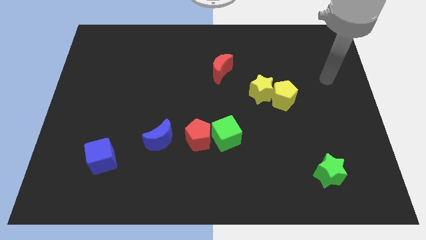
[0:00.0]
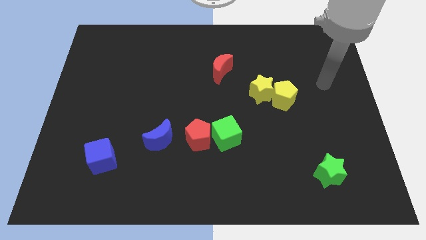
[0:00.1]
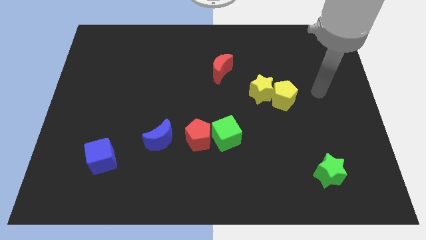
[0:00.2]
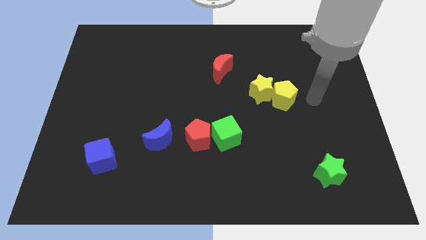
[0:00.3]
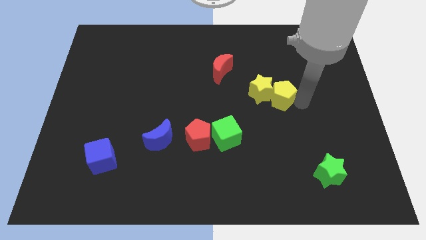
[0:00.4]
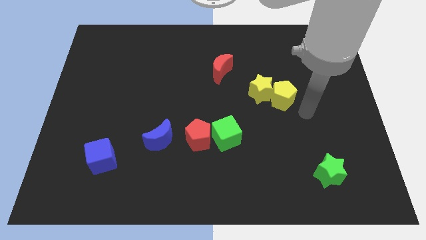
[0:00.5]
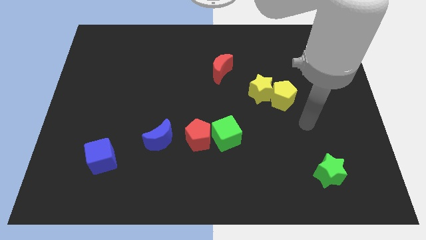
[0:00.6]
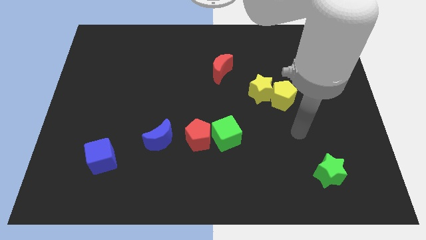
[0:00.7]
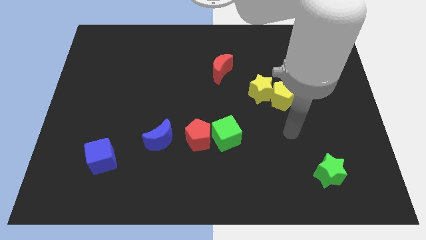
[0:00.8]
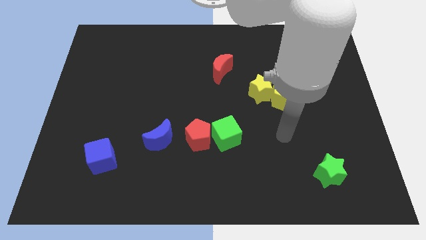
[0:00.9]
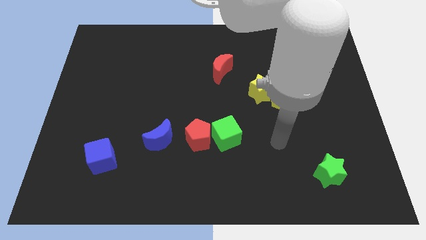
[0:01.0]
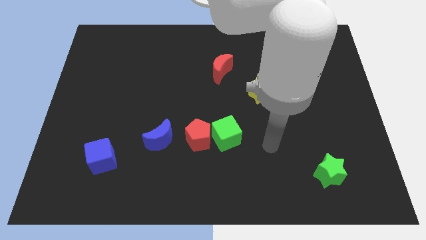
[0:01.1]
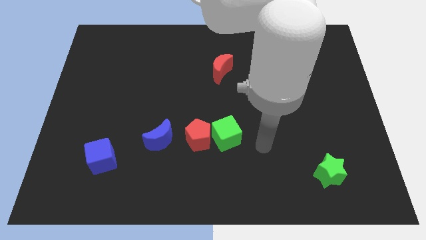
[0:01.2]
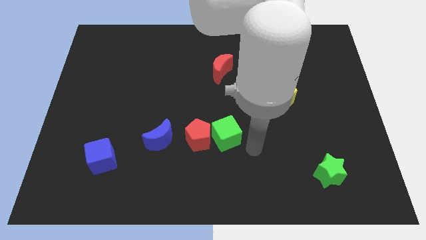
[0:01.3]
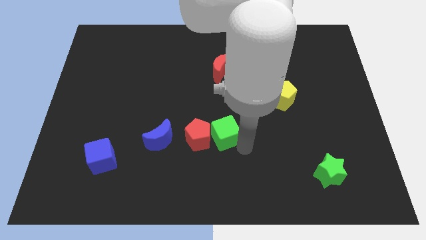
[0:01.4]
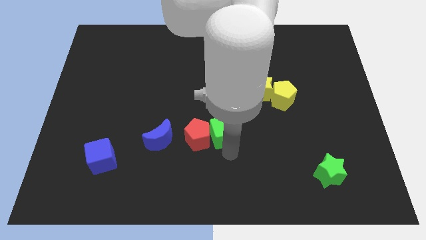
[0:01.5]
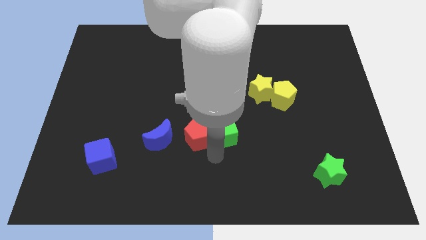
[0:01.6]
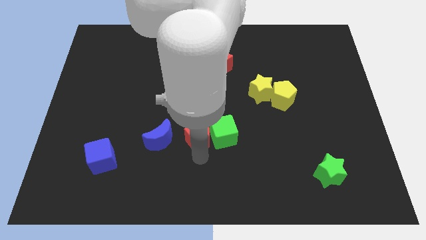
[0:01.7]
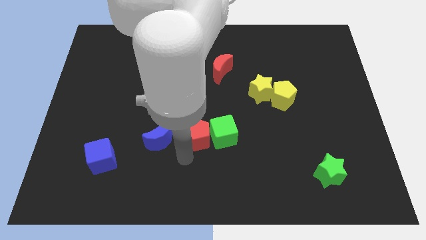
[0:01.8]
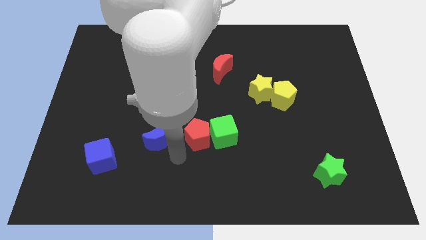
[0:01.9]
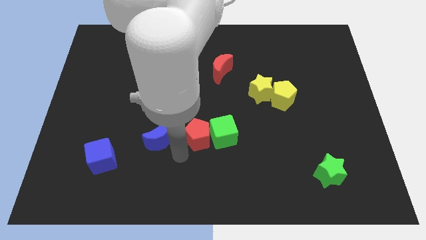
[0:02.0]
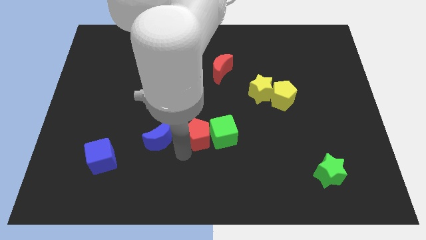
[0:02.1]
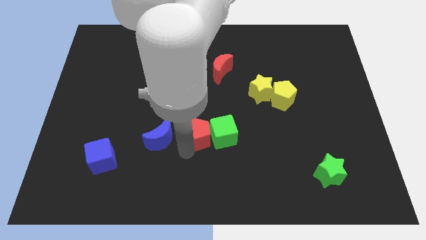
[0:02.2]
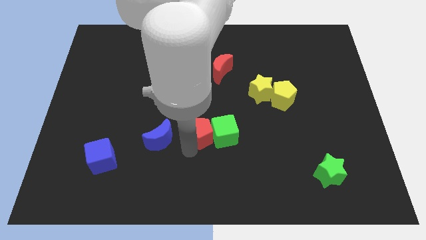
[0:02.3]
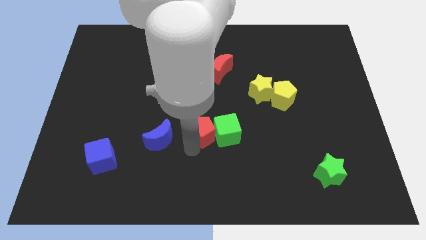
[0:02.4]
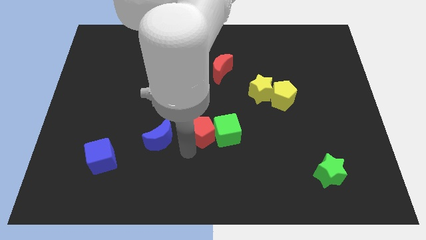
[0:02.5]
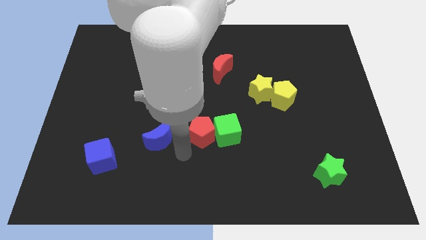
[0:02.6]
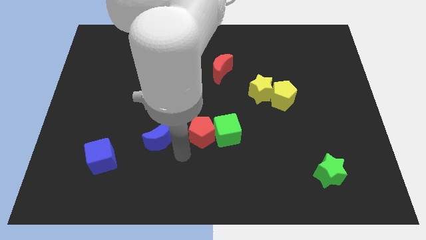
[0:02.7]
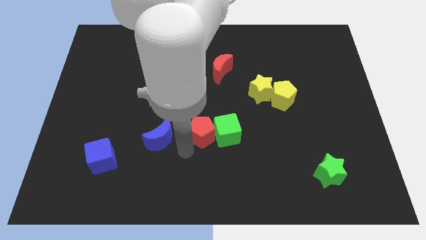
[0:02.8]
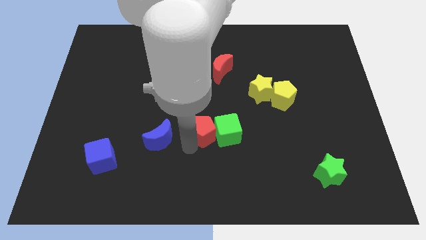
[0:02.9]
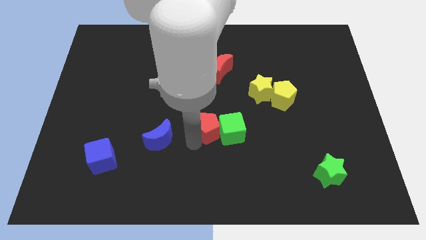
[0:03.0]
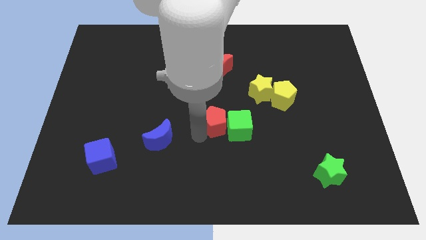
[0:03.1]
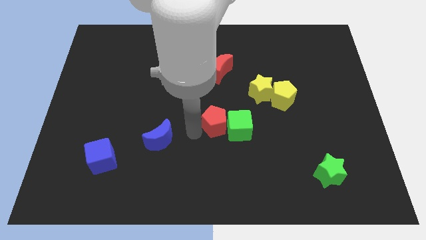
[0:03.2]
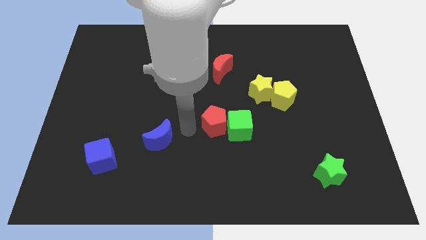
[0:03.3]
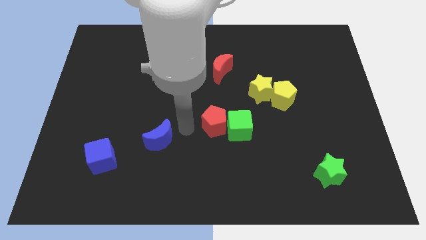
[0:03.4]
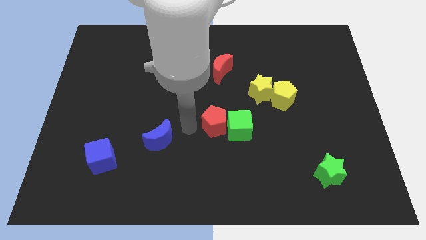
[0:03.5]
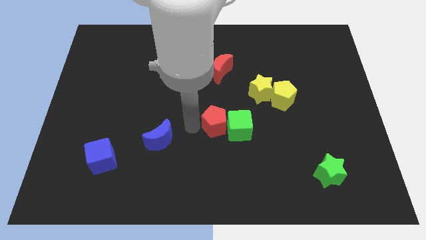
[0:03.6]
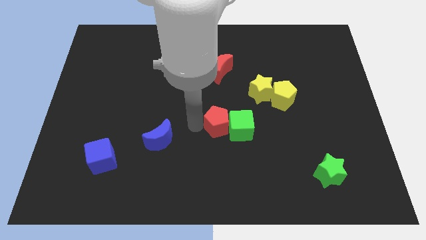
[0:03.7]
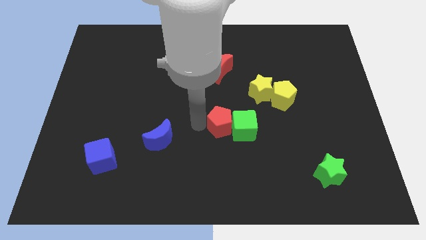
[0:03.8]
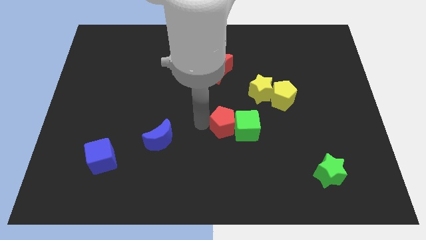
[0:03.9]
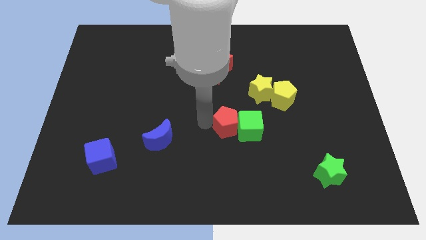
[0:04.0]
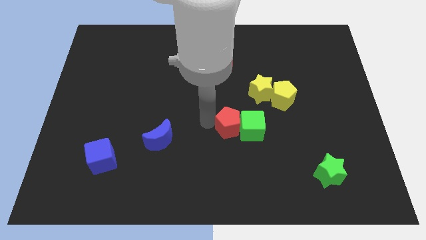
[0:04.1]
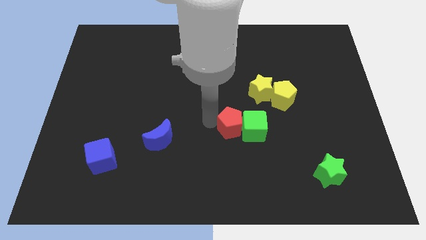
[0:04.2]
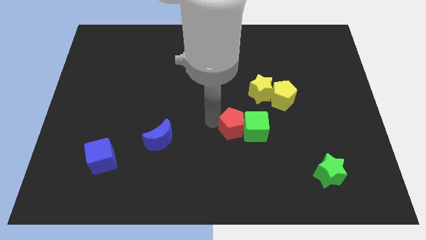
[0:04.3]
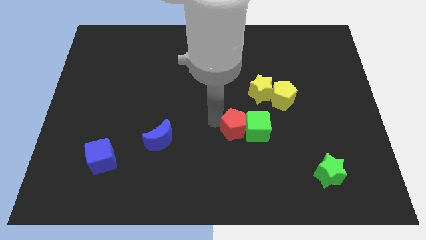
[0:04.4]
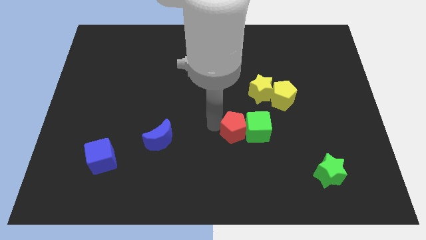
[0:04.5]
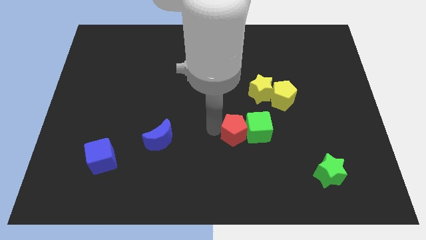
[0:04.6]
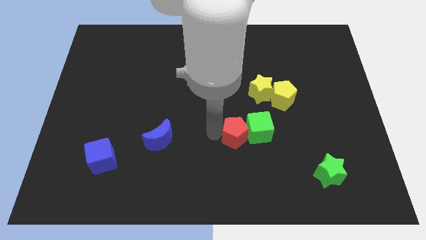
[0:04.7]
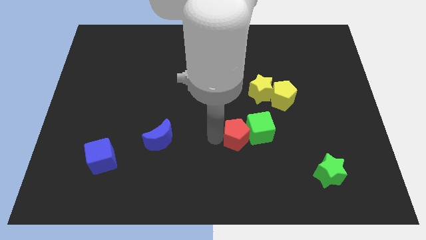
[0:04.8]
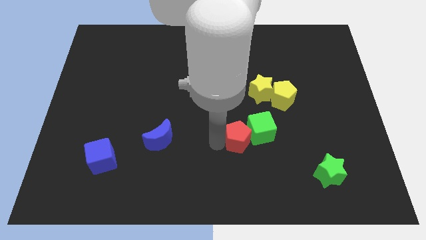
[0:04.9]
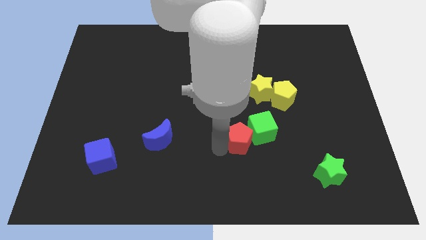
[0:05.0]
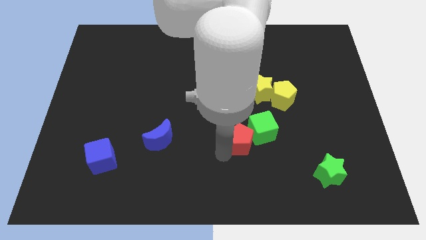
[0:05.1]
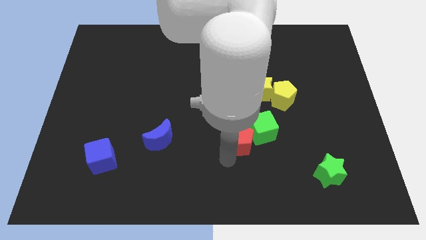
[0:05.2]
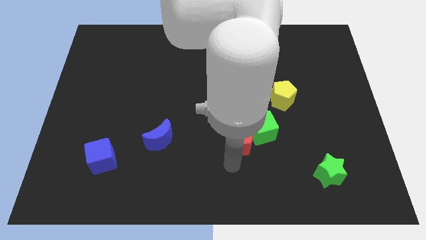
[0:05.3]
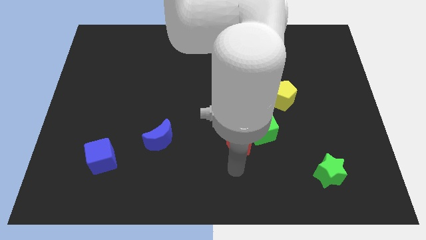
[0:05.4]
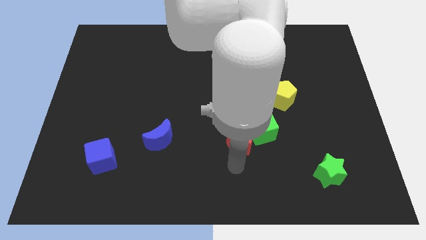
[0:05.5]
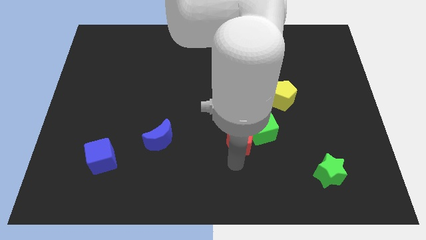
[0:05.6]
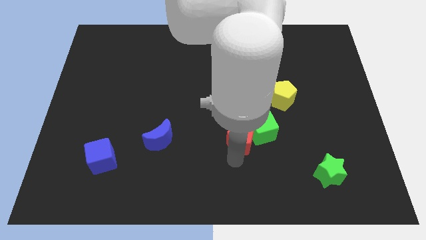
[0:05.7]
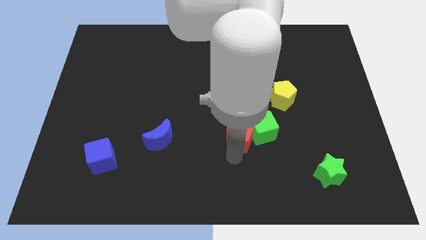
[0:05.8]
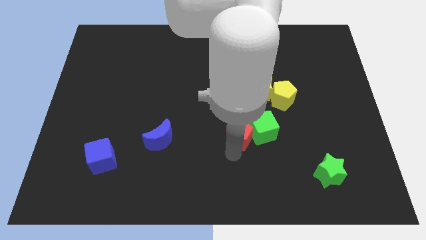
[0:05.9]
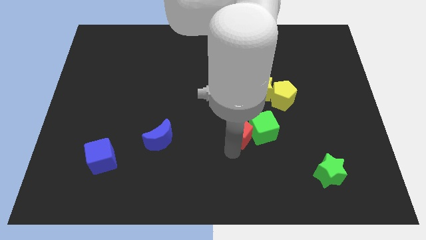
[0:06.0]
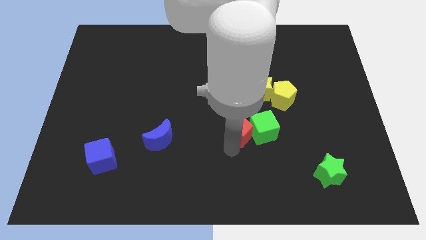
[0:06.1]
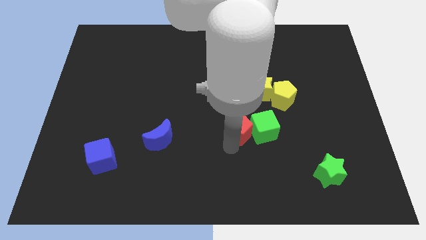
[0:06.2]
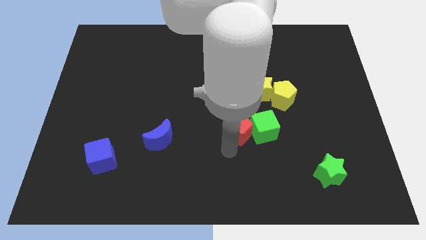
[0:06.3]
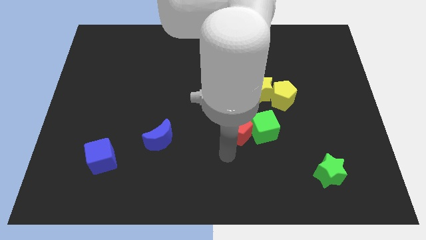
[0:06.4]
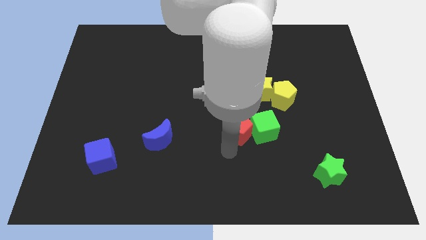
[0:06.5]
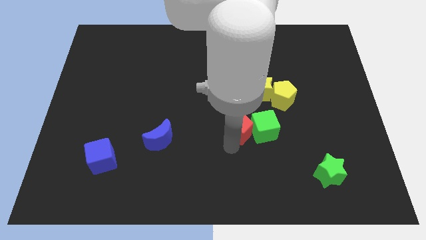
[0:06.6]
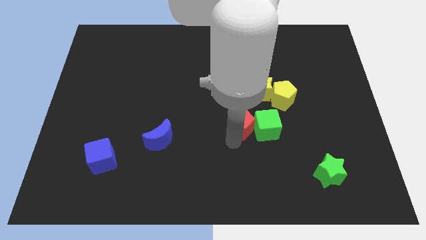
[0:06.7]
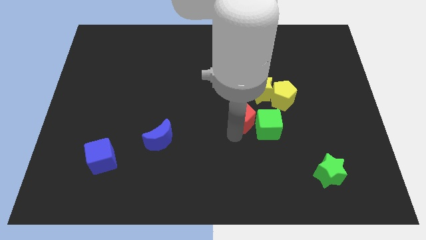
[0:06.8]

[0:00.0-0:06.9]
move the red pentagon diagonally down and to the left of the yellow pentagon

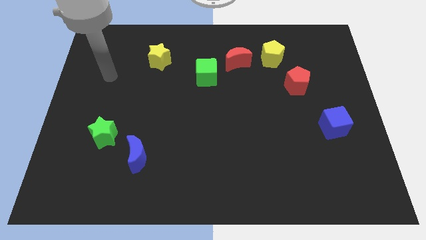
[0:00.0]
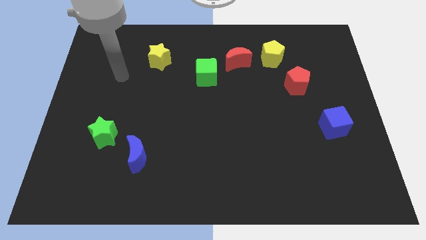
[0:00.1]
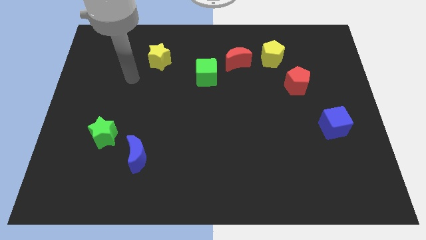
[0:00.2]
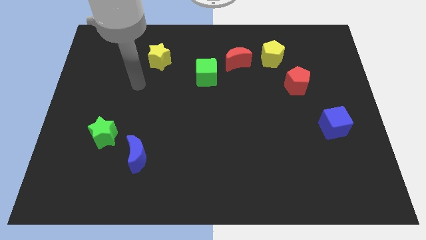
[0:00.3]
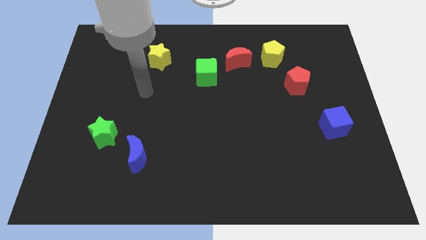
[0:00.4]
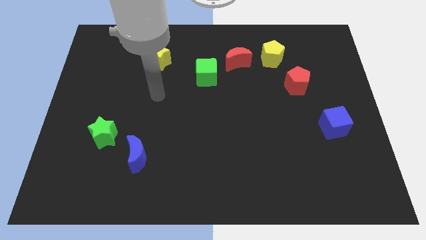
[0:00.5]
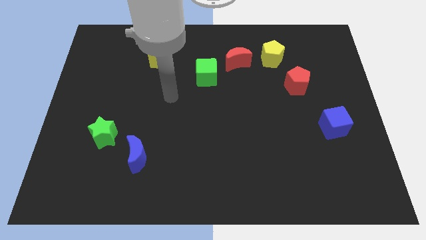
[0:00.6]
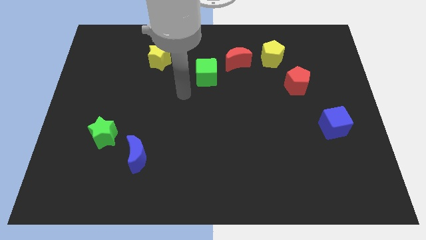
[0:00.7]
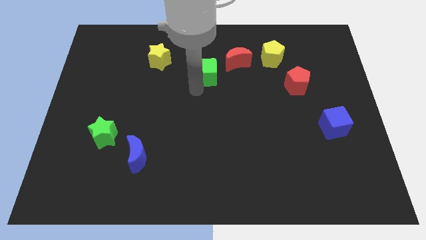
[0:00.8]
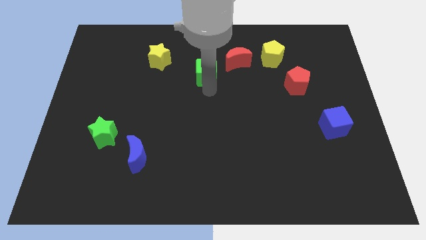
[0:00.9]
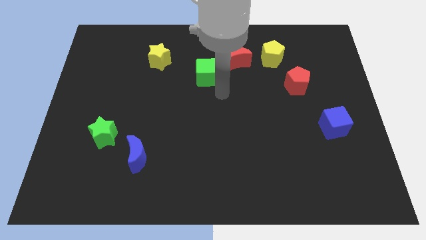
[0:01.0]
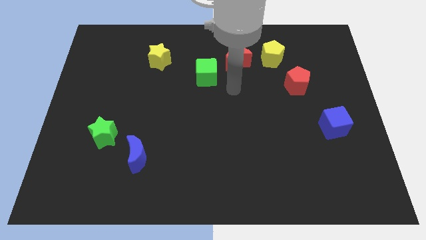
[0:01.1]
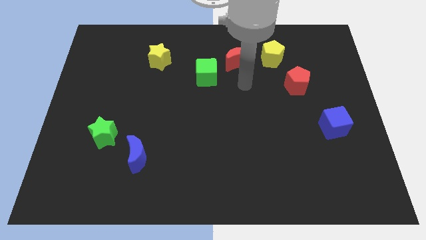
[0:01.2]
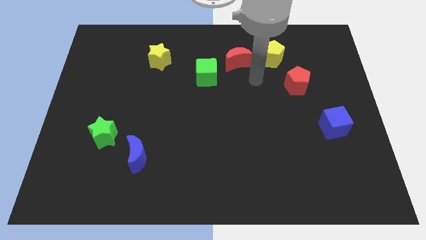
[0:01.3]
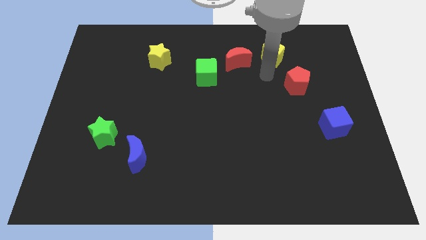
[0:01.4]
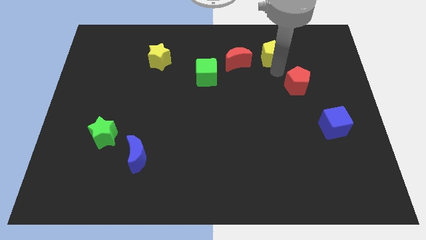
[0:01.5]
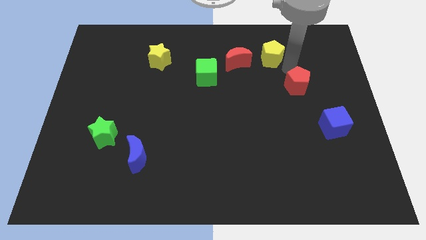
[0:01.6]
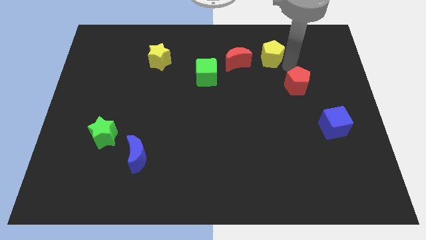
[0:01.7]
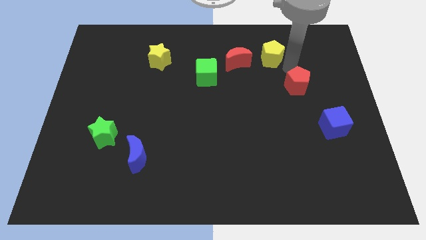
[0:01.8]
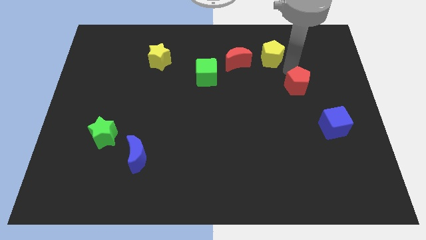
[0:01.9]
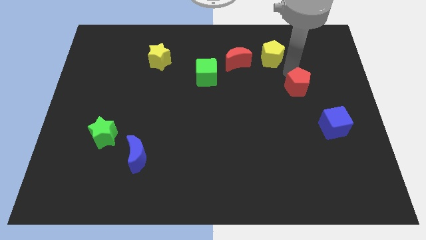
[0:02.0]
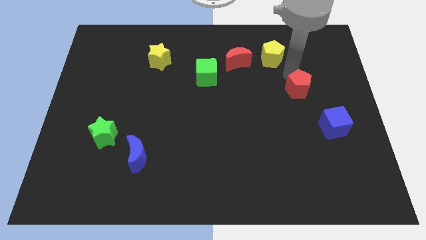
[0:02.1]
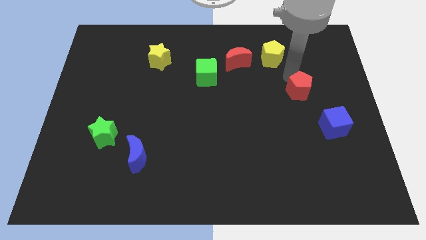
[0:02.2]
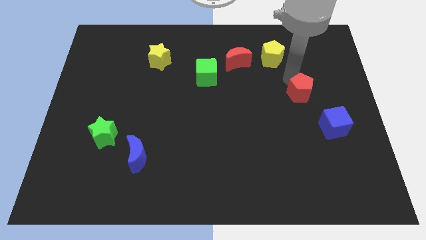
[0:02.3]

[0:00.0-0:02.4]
slide the red pentagon to the top left side of the blue cube
